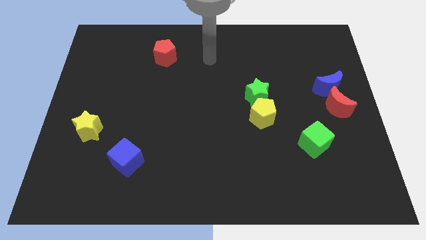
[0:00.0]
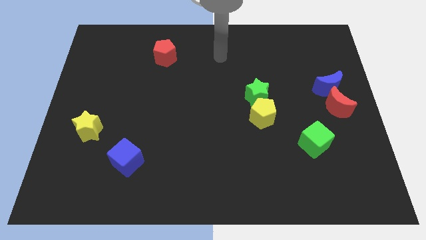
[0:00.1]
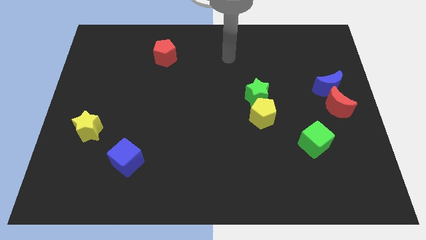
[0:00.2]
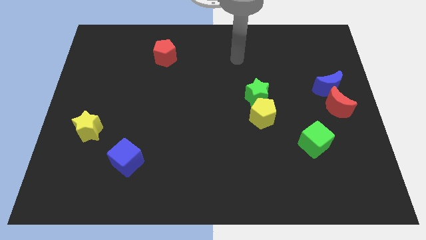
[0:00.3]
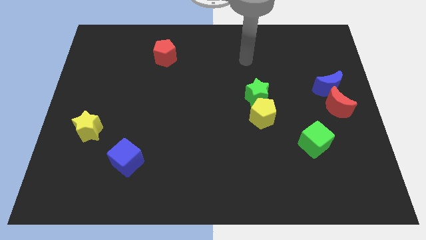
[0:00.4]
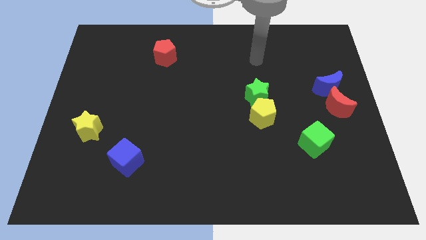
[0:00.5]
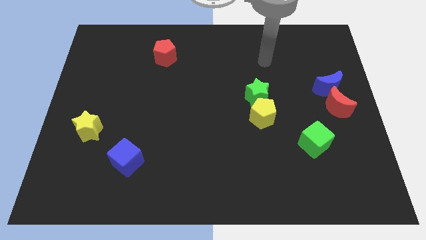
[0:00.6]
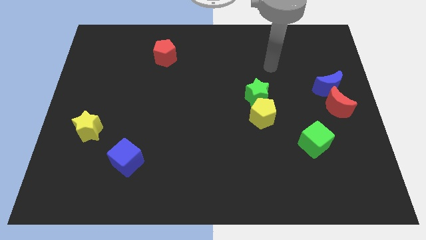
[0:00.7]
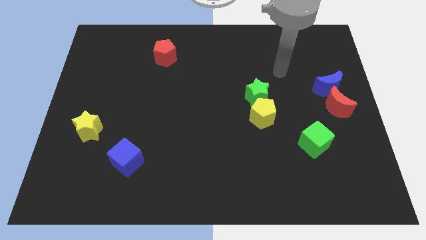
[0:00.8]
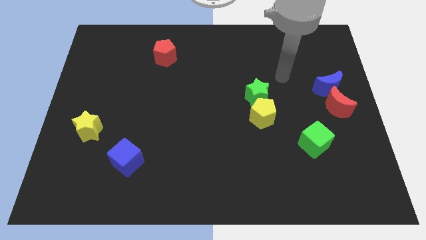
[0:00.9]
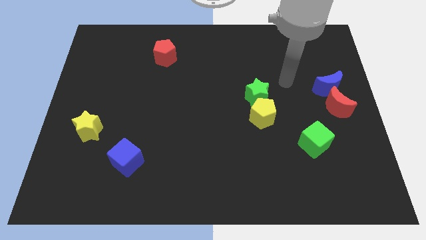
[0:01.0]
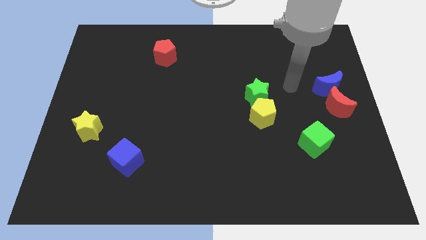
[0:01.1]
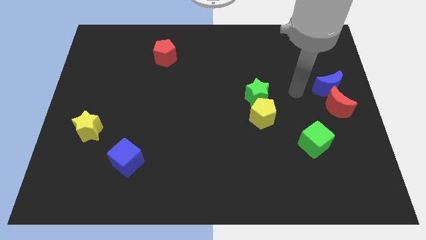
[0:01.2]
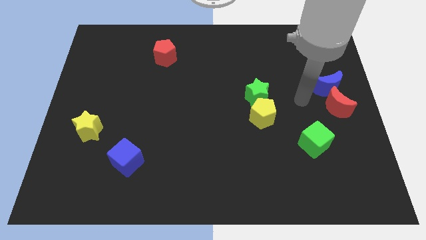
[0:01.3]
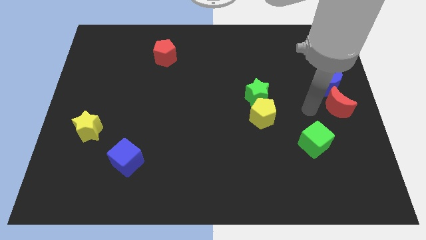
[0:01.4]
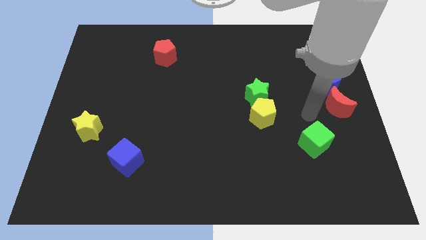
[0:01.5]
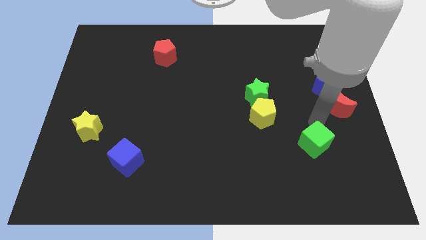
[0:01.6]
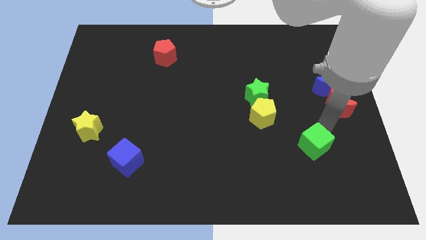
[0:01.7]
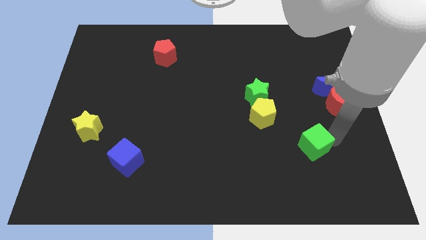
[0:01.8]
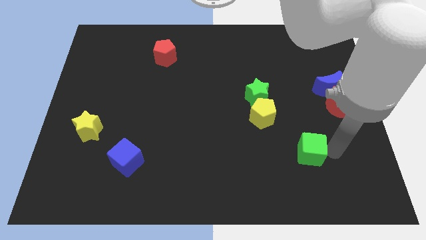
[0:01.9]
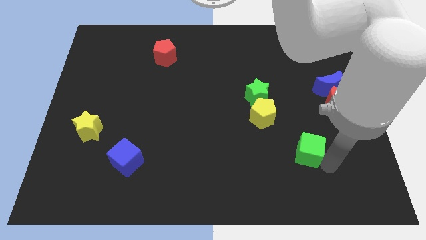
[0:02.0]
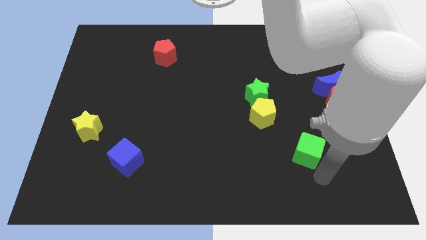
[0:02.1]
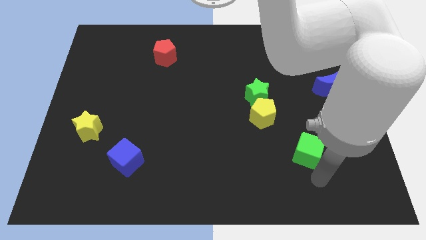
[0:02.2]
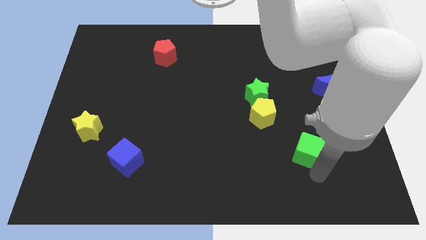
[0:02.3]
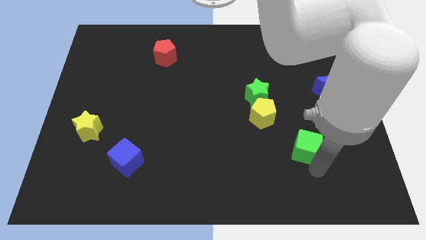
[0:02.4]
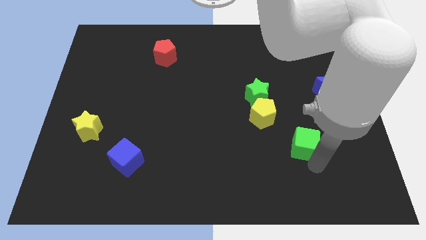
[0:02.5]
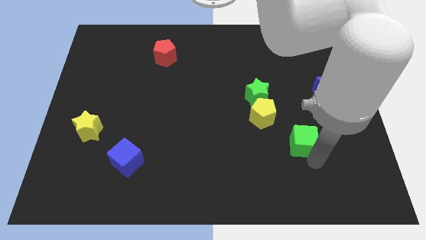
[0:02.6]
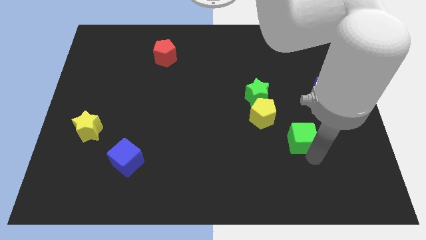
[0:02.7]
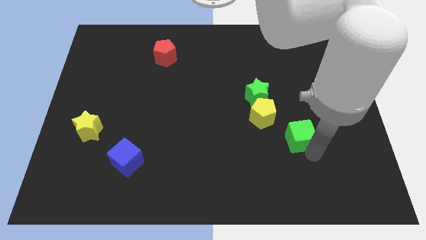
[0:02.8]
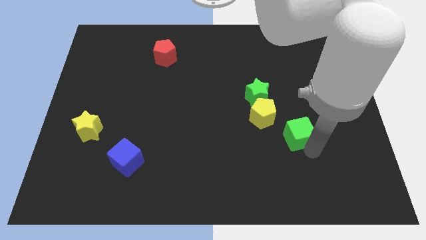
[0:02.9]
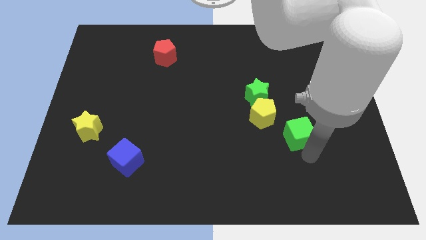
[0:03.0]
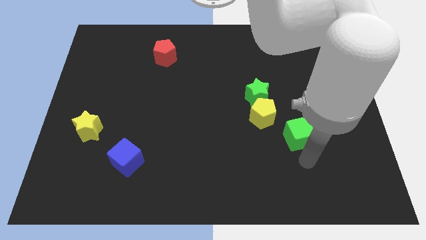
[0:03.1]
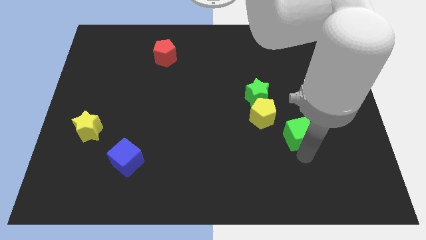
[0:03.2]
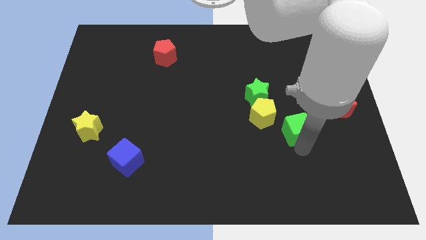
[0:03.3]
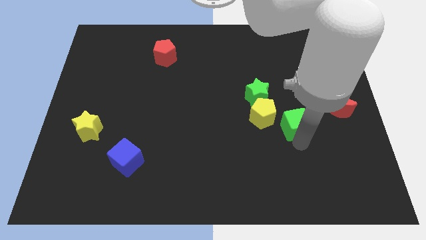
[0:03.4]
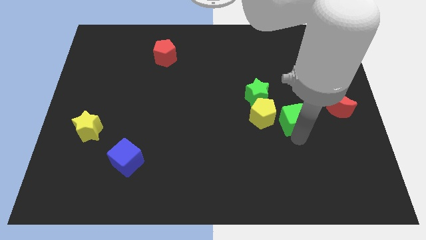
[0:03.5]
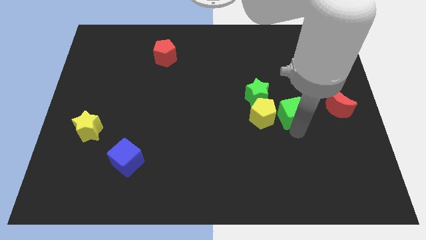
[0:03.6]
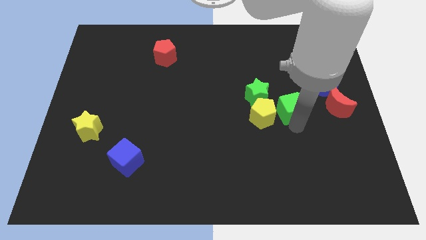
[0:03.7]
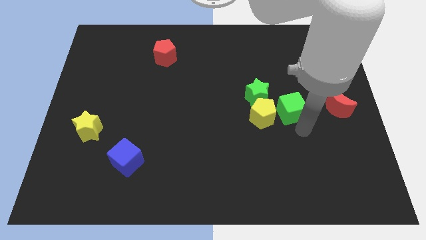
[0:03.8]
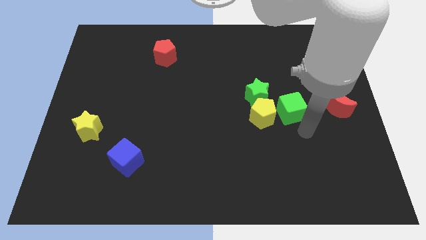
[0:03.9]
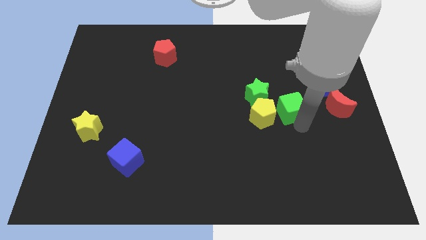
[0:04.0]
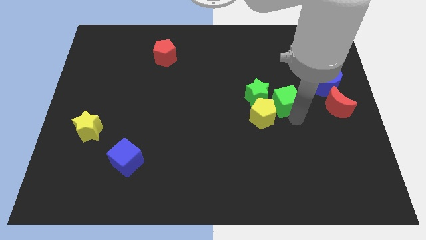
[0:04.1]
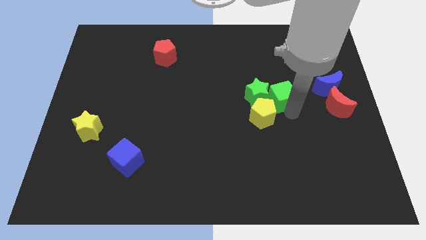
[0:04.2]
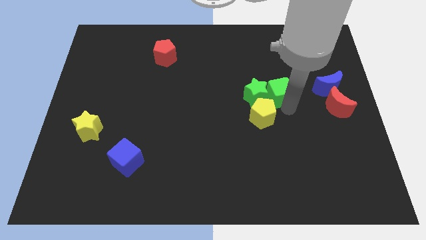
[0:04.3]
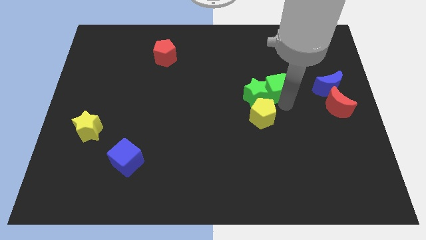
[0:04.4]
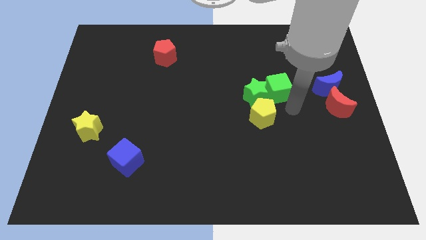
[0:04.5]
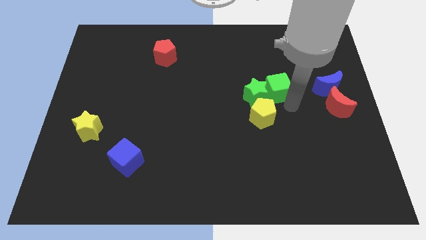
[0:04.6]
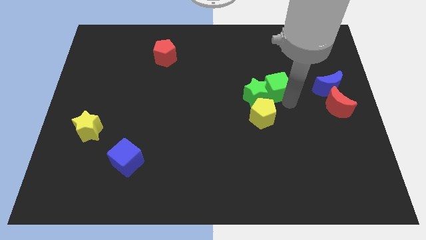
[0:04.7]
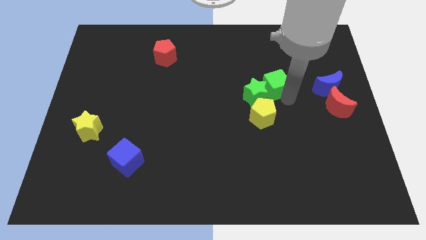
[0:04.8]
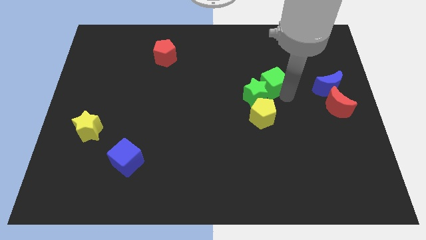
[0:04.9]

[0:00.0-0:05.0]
slide the green cube to the top of the green star

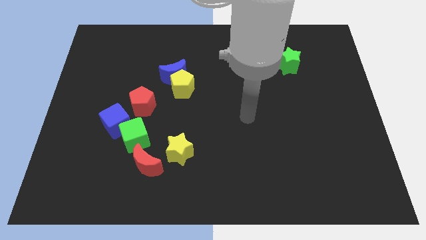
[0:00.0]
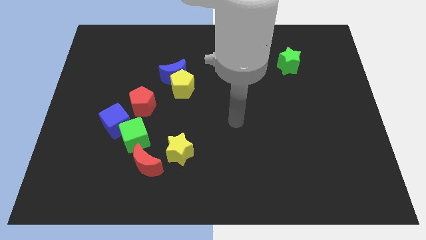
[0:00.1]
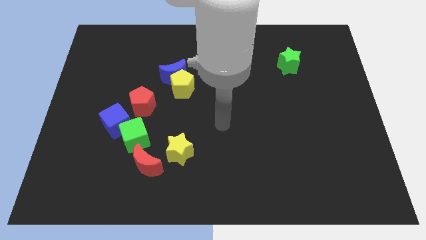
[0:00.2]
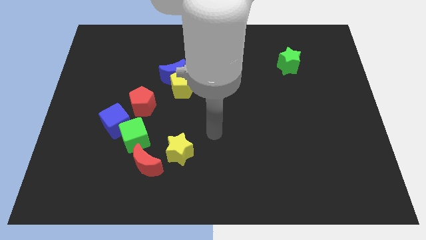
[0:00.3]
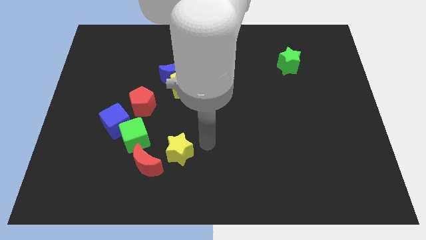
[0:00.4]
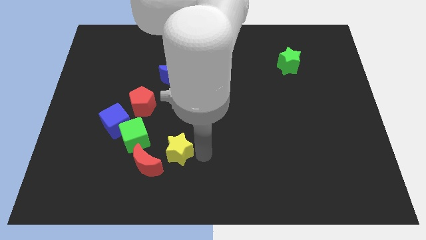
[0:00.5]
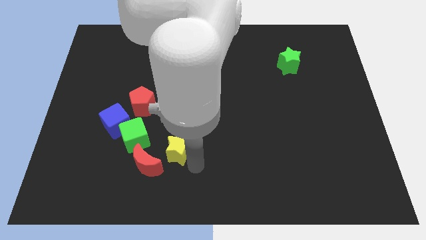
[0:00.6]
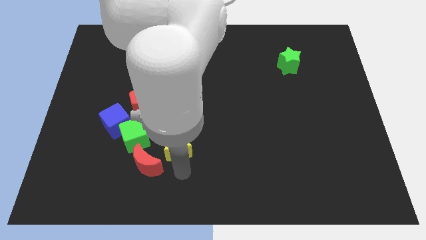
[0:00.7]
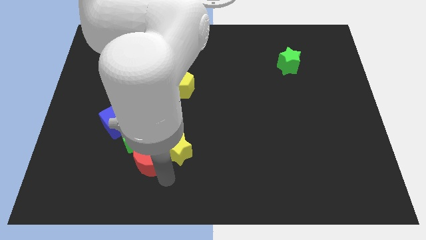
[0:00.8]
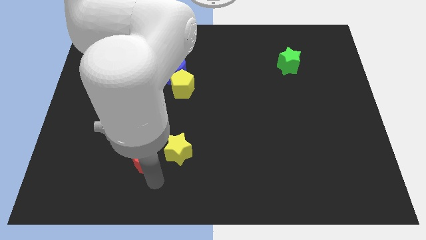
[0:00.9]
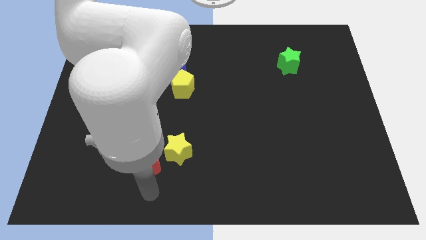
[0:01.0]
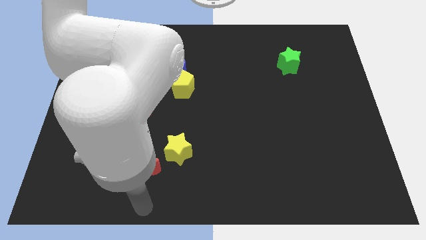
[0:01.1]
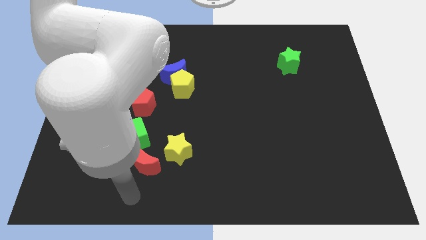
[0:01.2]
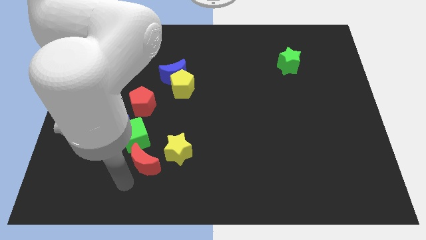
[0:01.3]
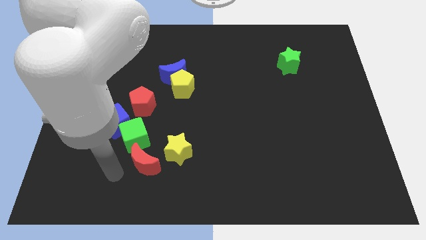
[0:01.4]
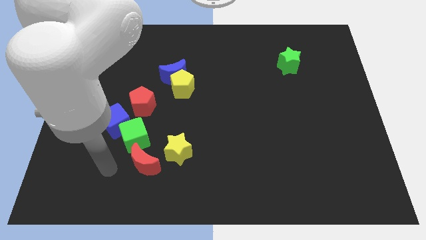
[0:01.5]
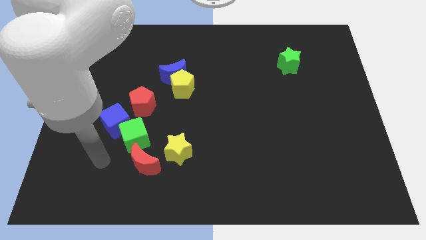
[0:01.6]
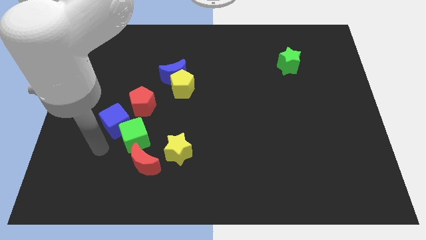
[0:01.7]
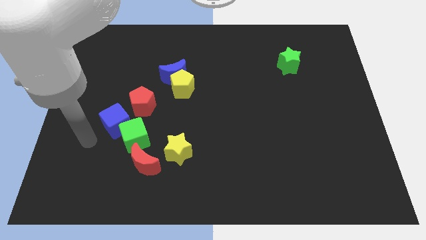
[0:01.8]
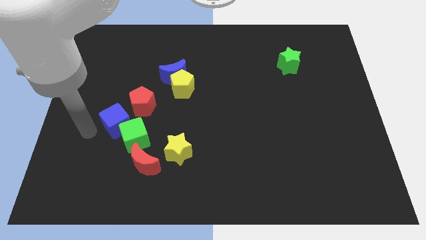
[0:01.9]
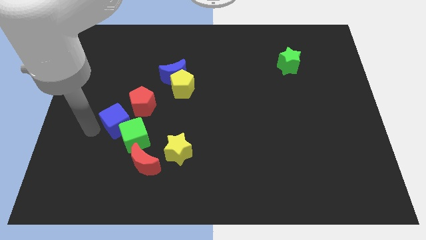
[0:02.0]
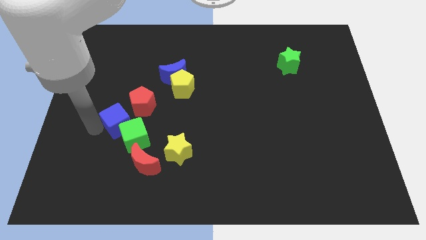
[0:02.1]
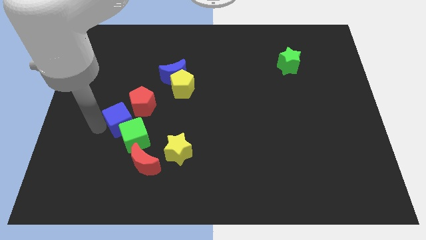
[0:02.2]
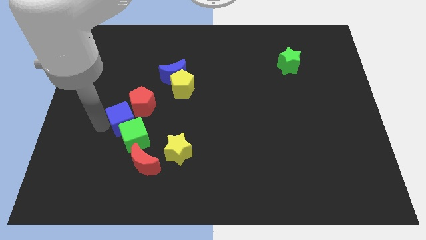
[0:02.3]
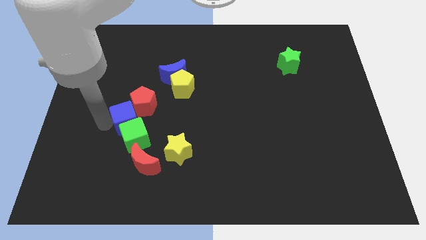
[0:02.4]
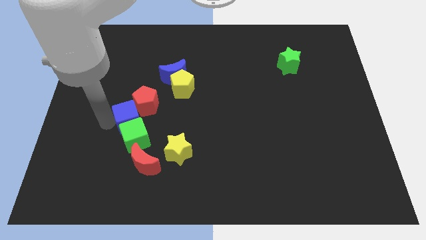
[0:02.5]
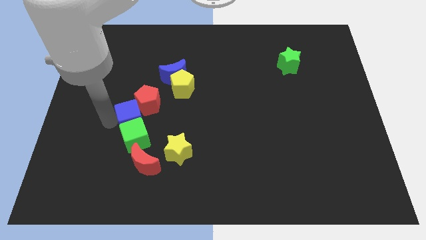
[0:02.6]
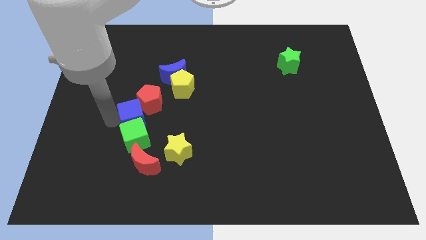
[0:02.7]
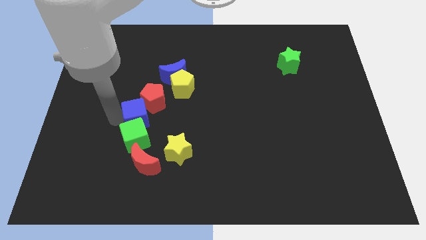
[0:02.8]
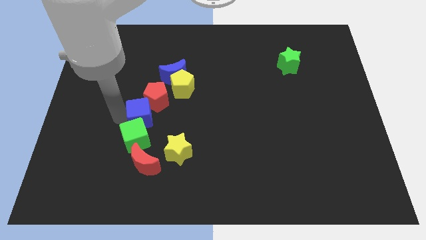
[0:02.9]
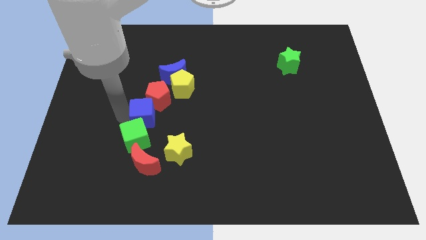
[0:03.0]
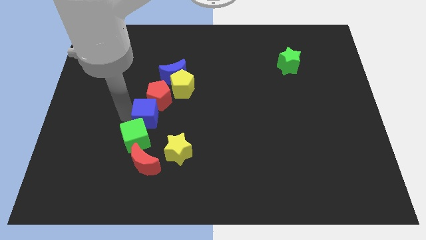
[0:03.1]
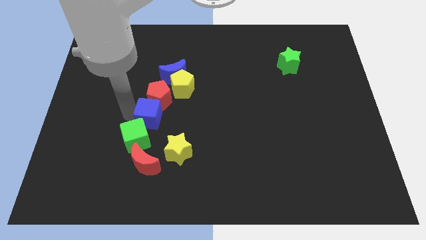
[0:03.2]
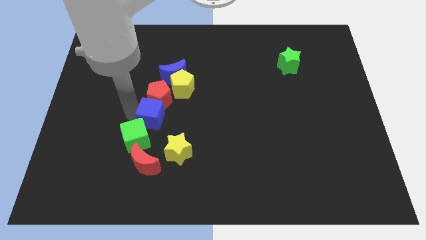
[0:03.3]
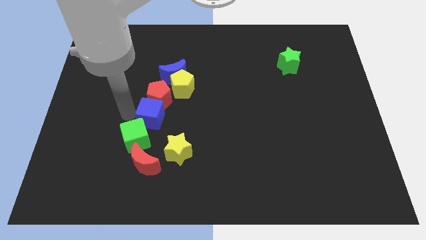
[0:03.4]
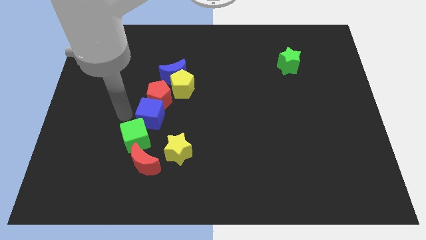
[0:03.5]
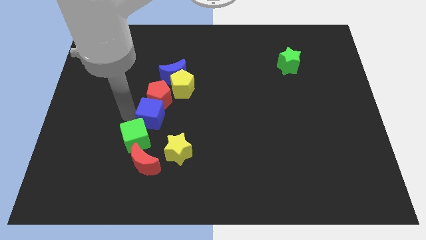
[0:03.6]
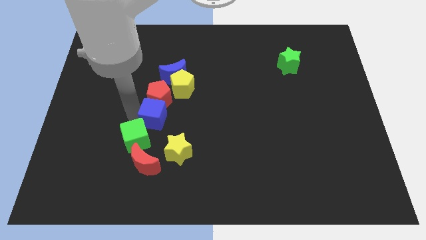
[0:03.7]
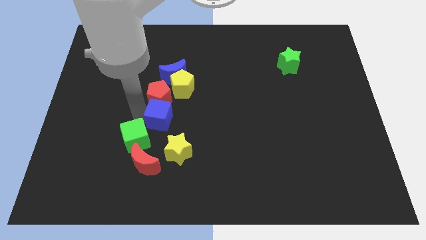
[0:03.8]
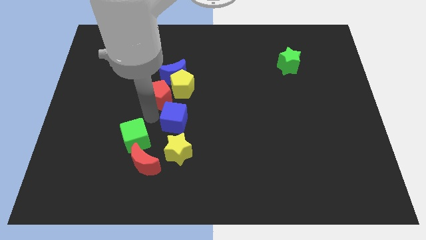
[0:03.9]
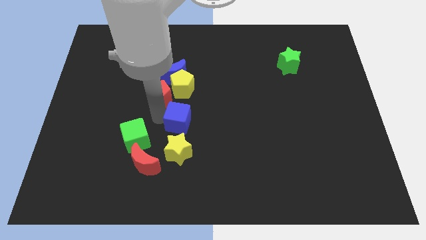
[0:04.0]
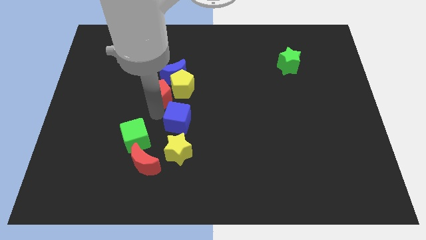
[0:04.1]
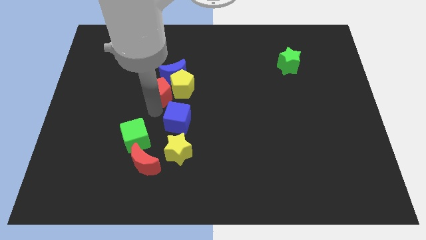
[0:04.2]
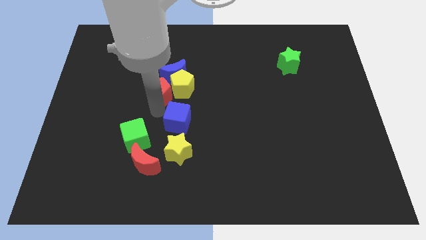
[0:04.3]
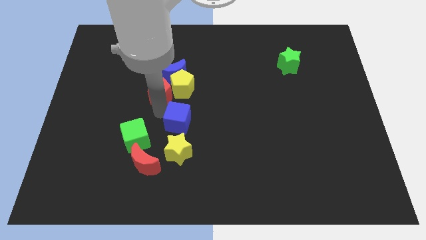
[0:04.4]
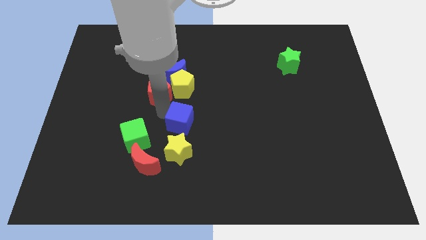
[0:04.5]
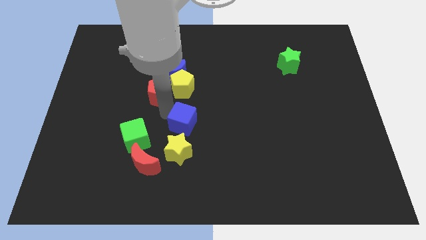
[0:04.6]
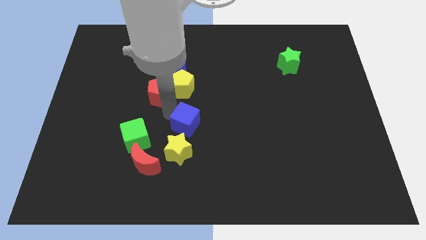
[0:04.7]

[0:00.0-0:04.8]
push the blue cube diagonally up and to the right of the yellow star
